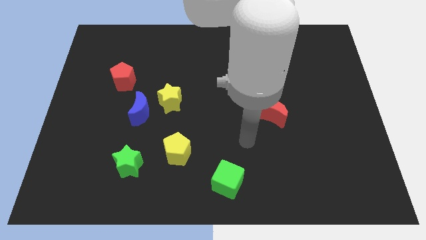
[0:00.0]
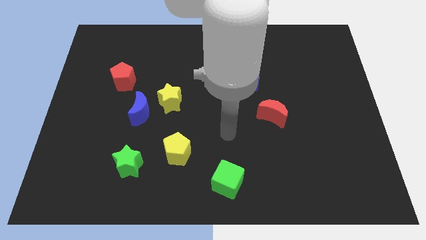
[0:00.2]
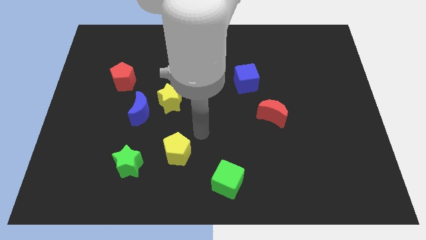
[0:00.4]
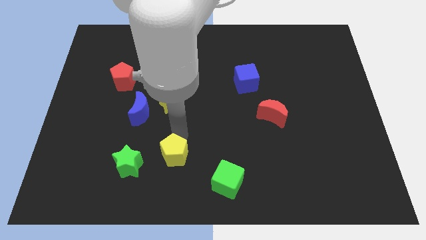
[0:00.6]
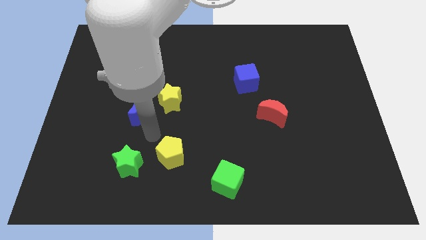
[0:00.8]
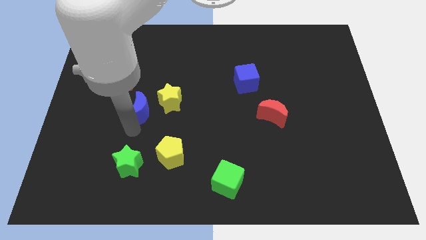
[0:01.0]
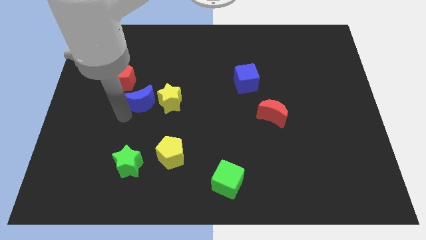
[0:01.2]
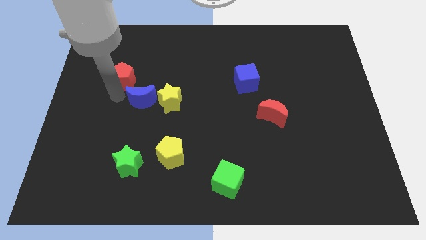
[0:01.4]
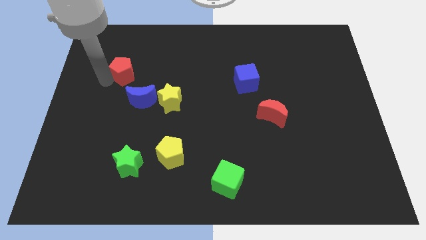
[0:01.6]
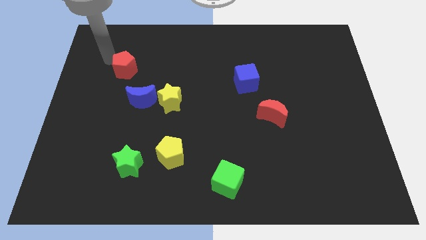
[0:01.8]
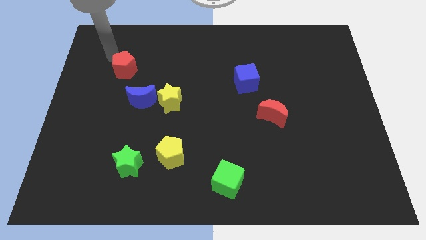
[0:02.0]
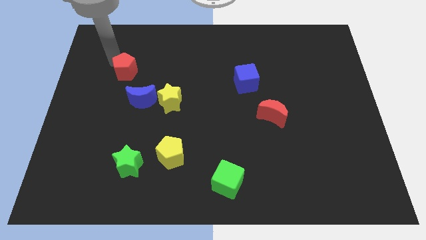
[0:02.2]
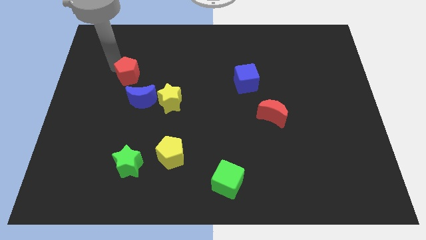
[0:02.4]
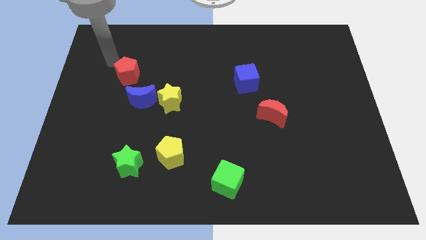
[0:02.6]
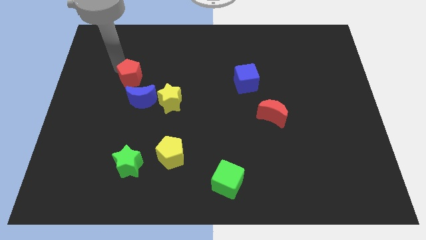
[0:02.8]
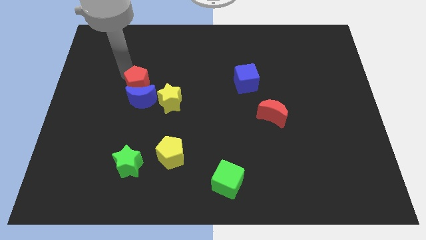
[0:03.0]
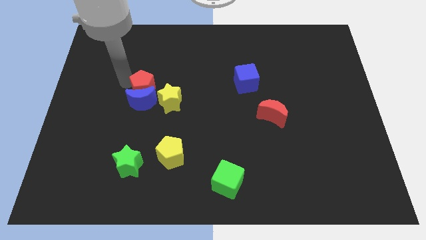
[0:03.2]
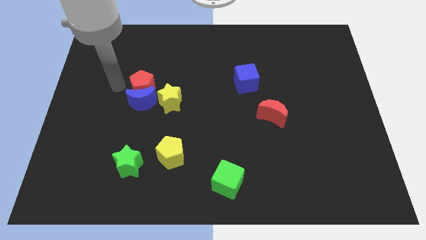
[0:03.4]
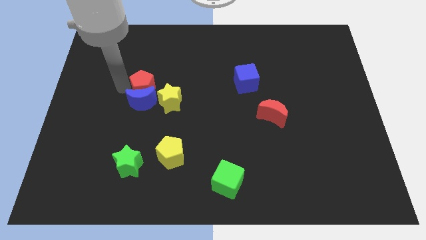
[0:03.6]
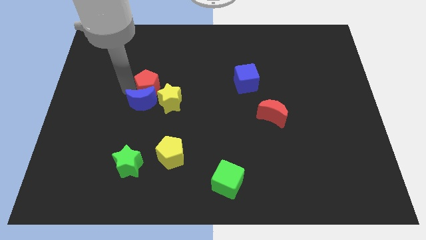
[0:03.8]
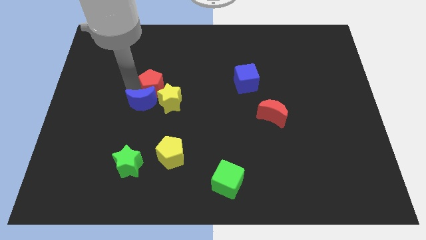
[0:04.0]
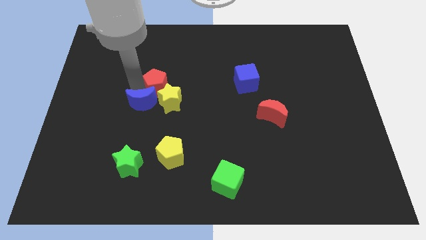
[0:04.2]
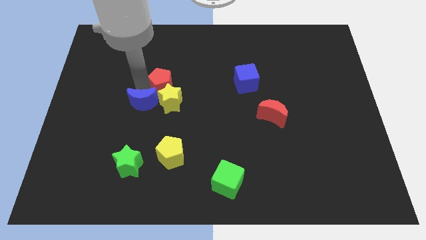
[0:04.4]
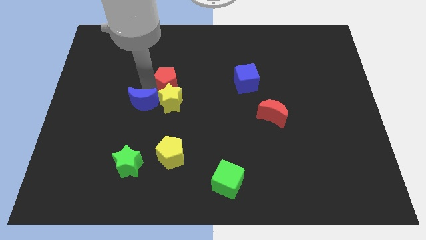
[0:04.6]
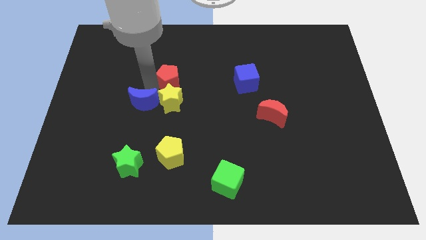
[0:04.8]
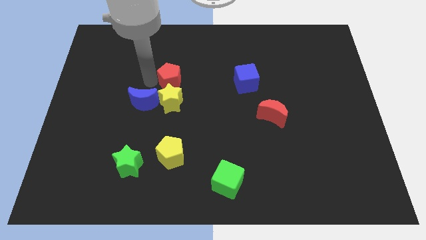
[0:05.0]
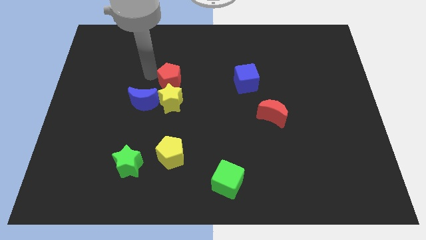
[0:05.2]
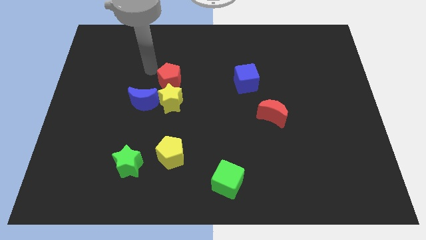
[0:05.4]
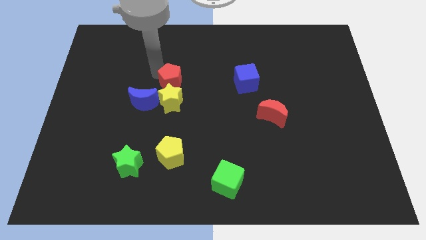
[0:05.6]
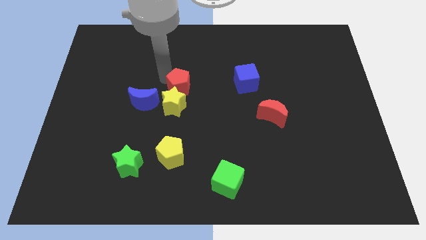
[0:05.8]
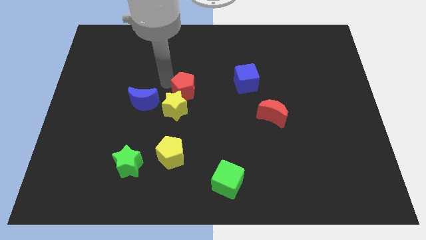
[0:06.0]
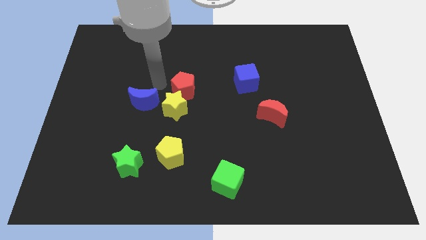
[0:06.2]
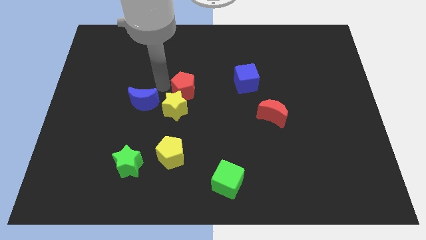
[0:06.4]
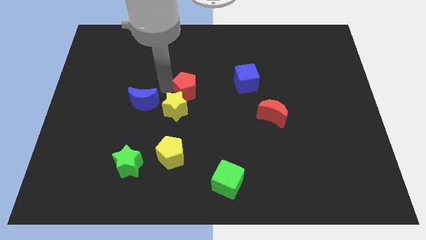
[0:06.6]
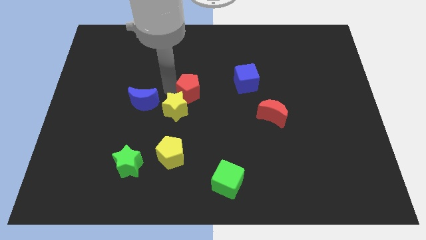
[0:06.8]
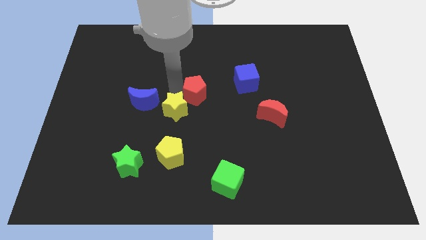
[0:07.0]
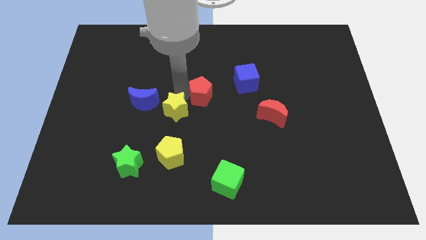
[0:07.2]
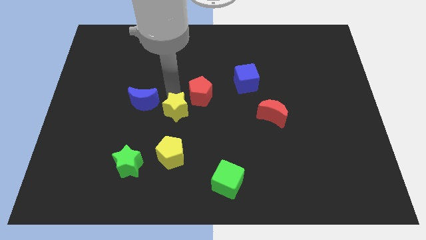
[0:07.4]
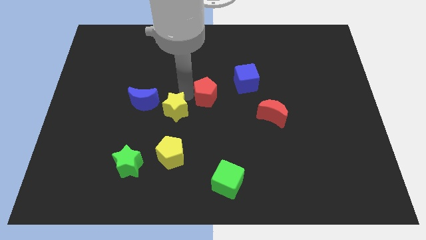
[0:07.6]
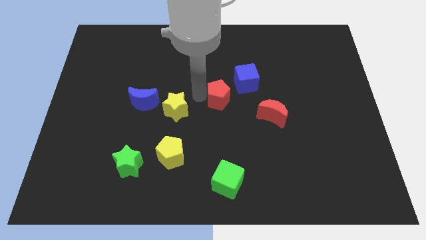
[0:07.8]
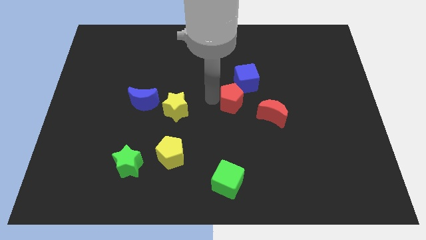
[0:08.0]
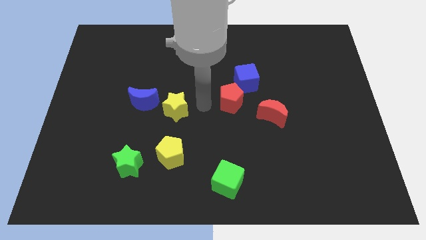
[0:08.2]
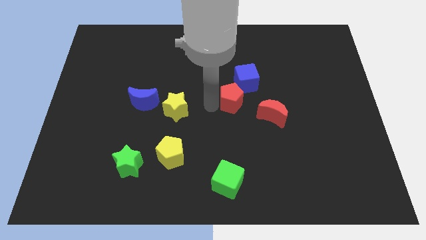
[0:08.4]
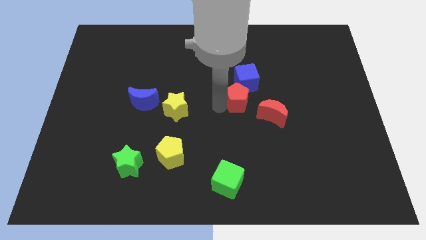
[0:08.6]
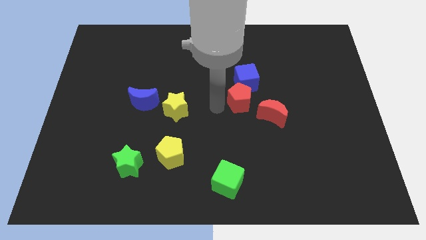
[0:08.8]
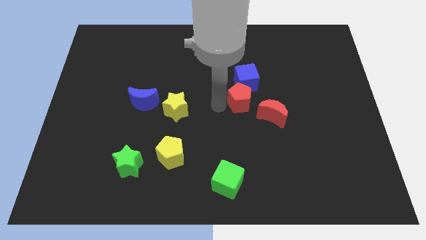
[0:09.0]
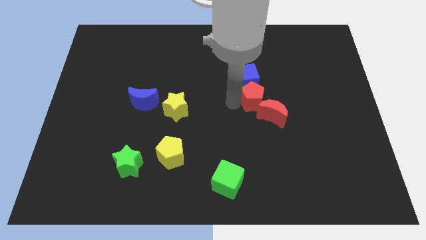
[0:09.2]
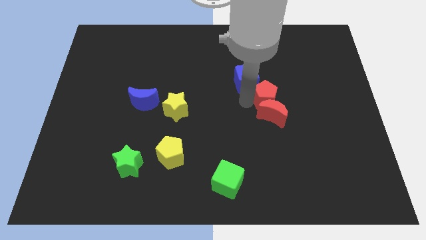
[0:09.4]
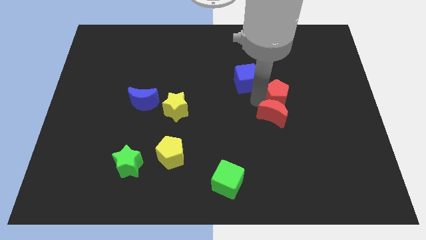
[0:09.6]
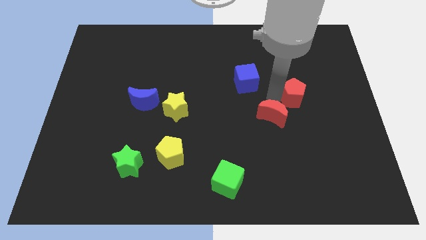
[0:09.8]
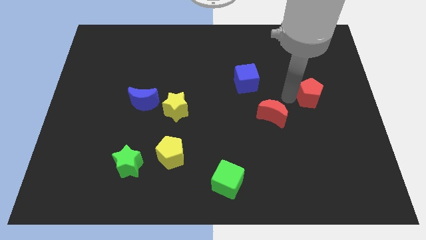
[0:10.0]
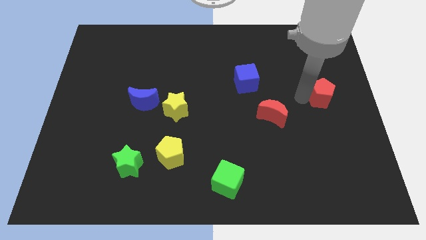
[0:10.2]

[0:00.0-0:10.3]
push the red pentagon to the center right

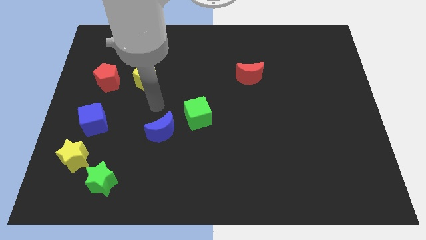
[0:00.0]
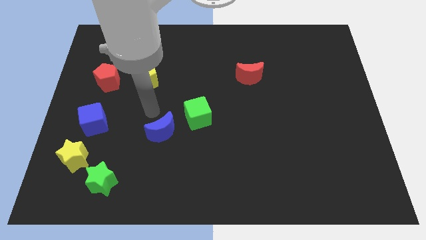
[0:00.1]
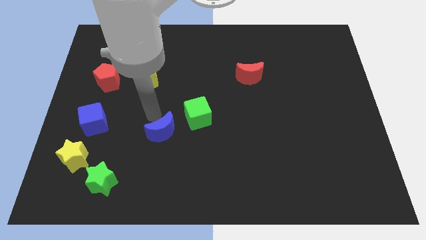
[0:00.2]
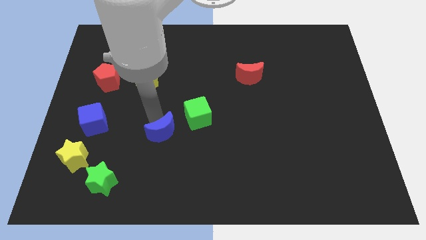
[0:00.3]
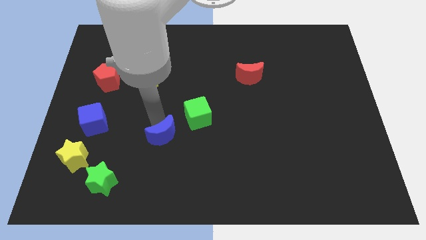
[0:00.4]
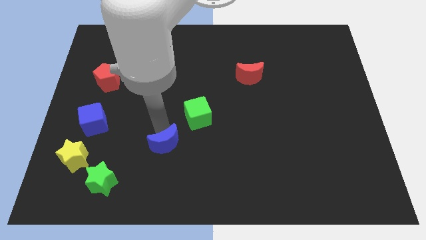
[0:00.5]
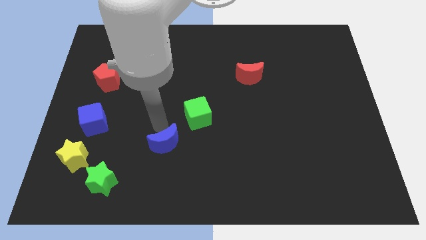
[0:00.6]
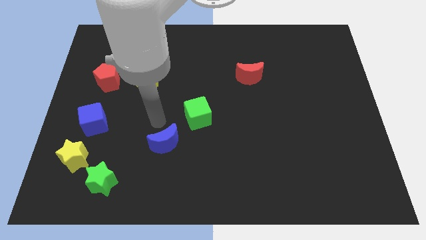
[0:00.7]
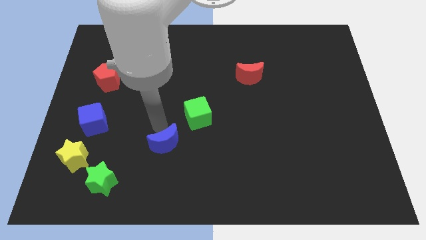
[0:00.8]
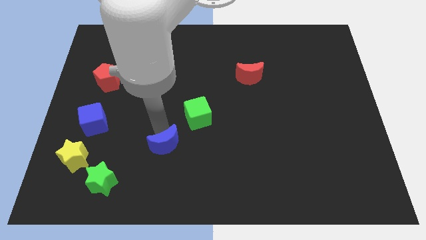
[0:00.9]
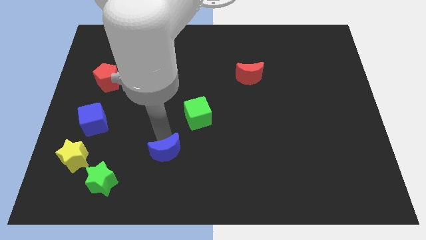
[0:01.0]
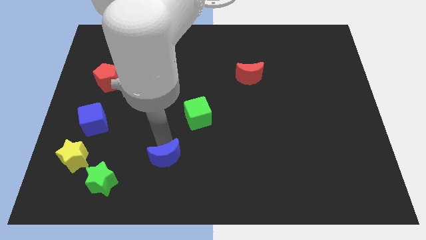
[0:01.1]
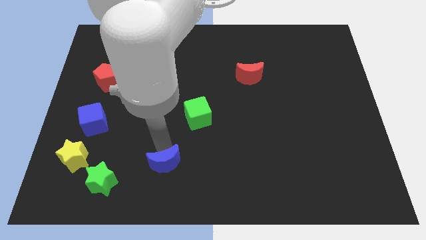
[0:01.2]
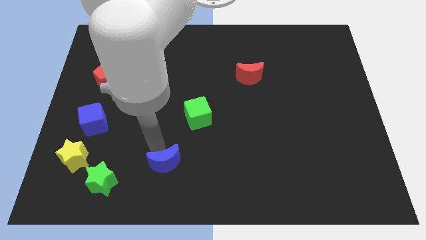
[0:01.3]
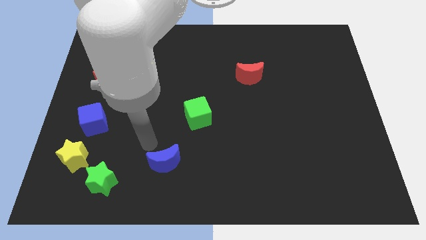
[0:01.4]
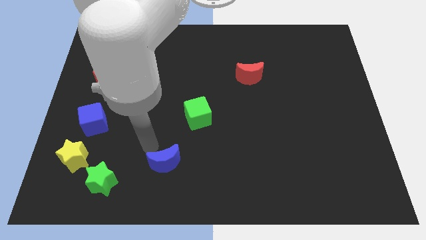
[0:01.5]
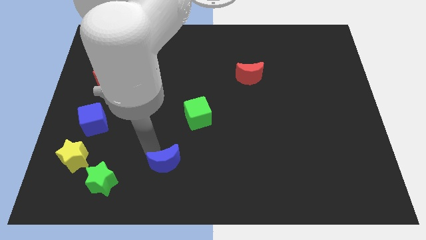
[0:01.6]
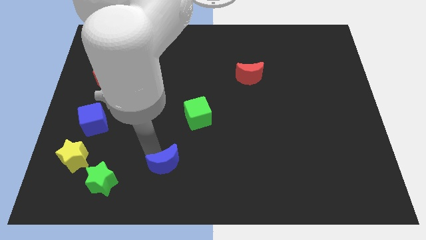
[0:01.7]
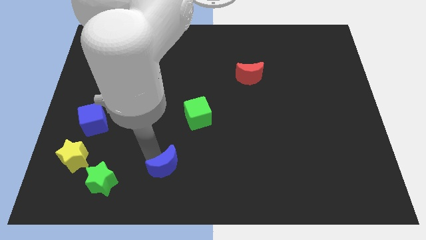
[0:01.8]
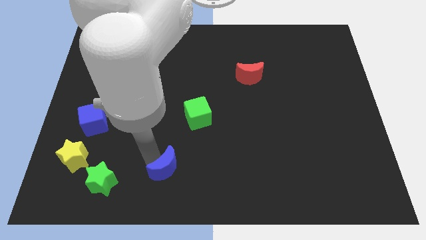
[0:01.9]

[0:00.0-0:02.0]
slide the blue moon to the bottom side
